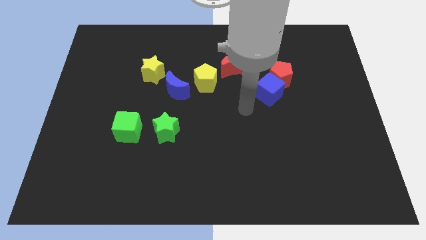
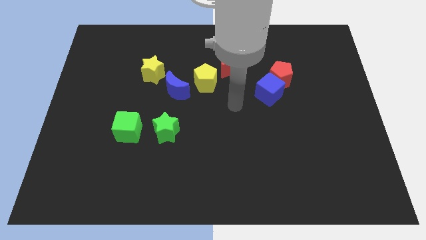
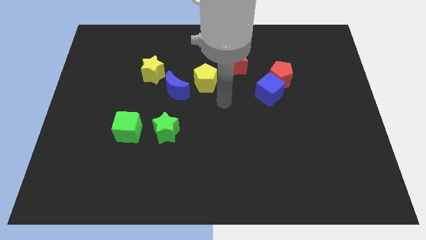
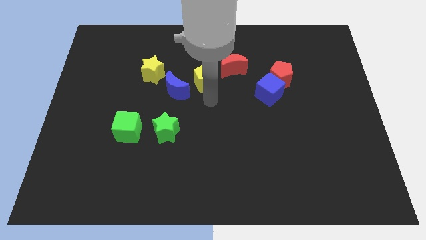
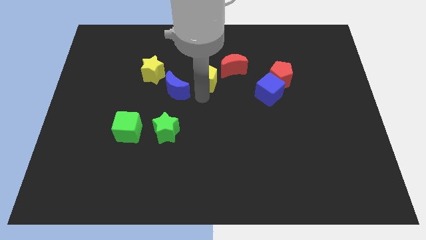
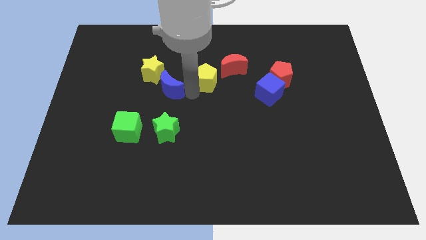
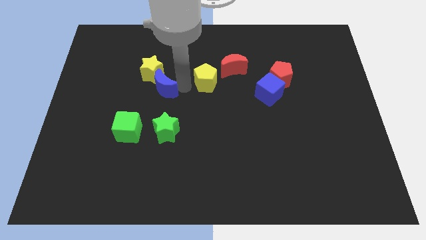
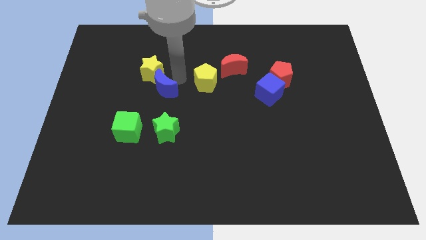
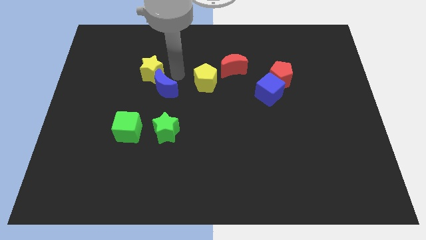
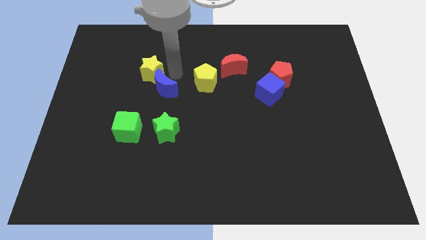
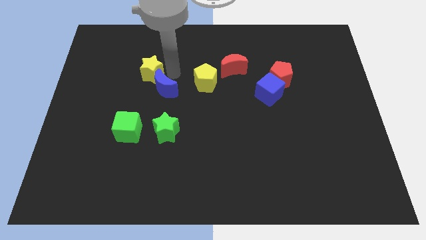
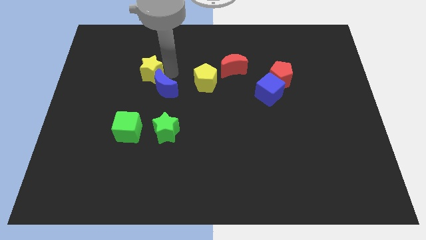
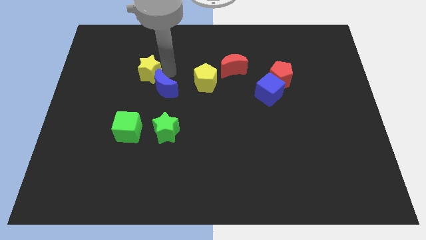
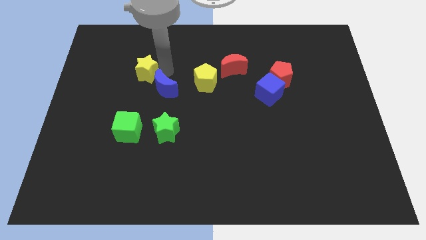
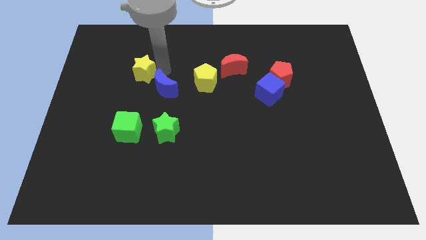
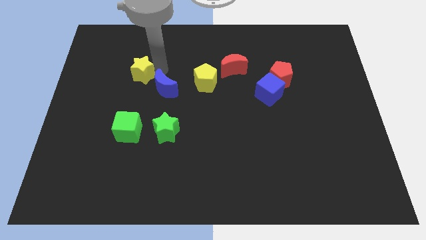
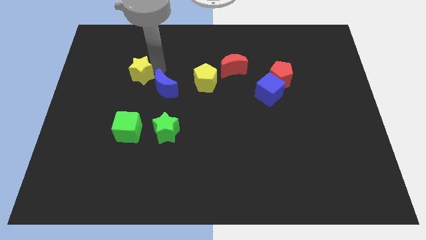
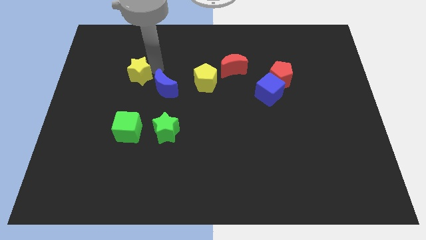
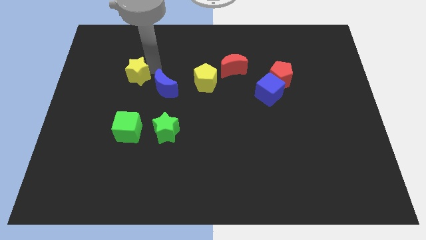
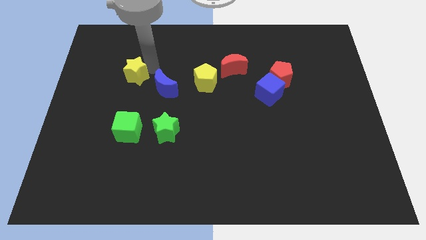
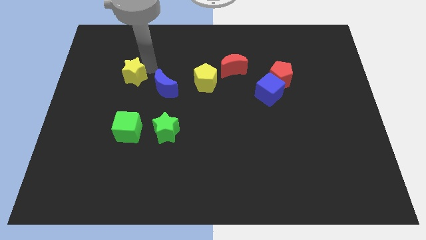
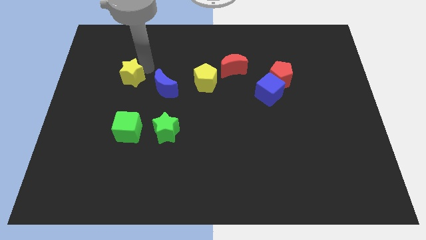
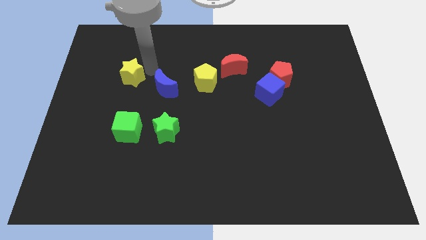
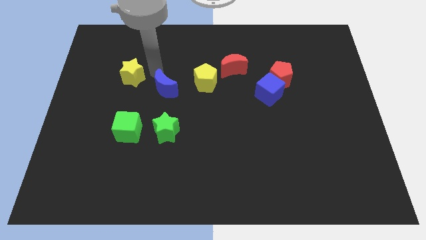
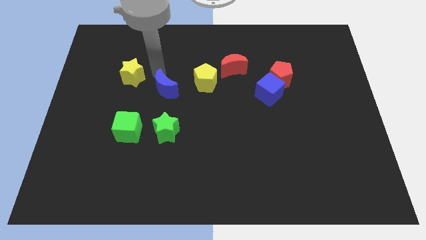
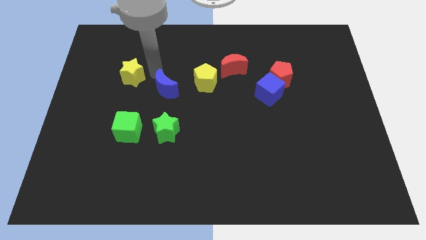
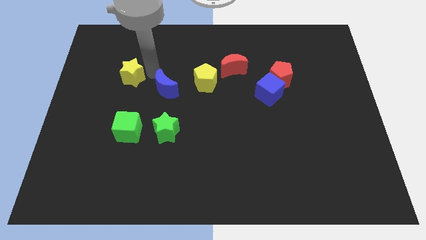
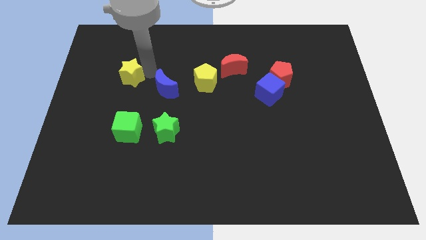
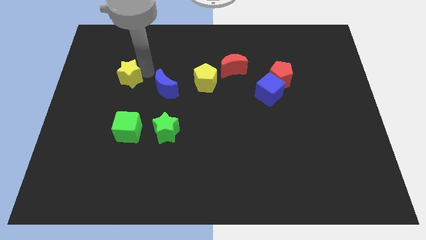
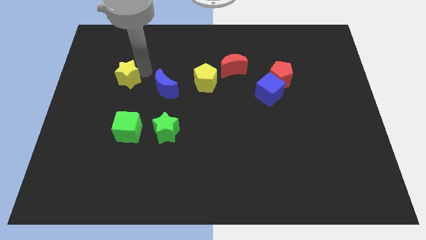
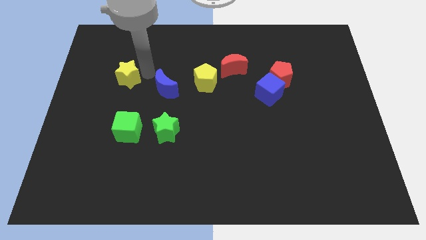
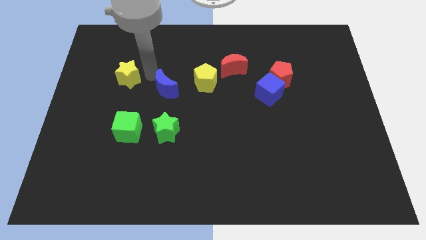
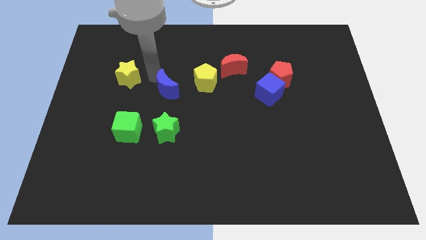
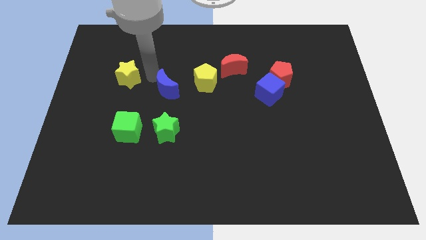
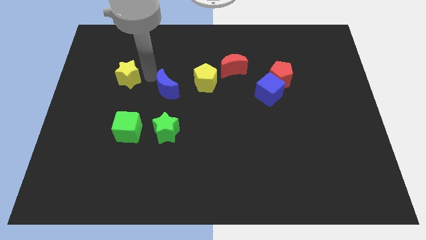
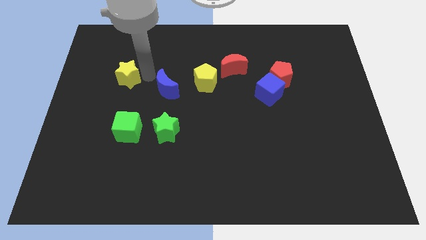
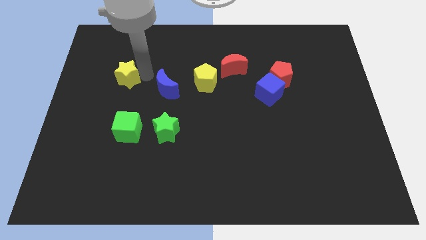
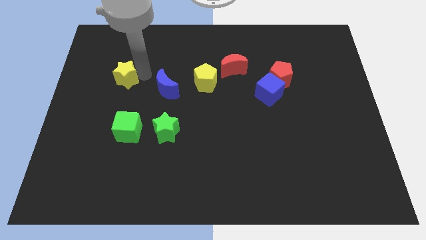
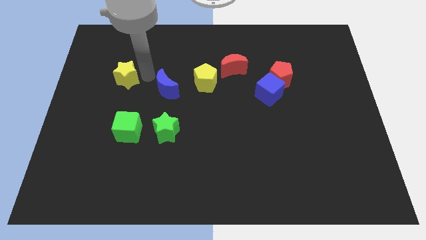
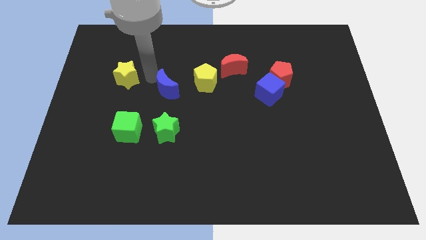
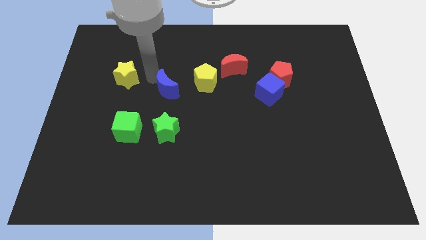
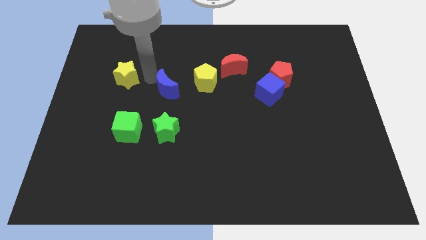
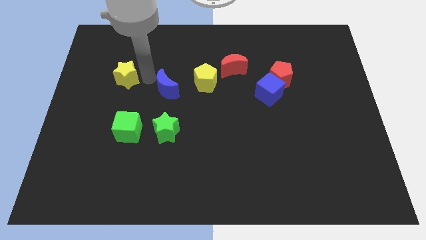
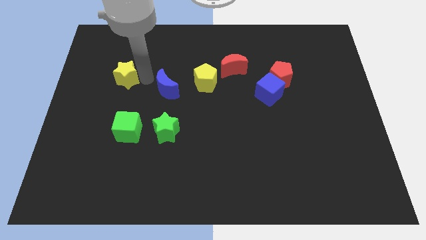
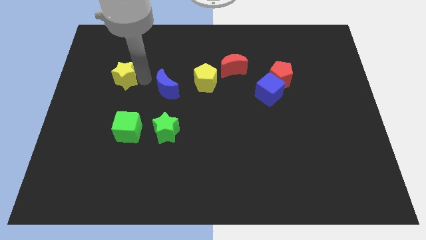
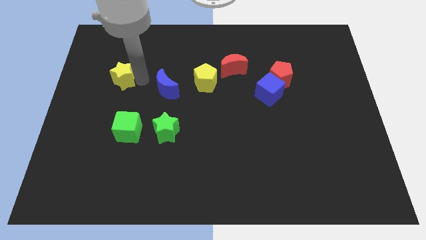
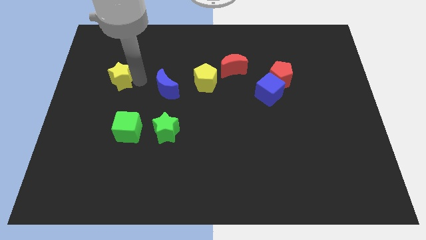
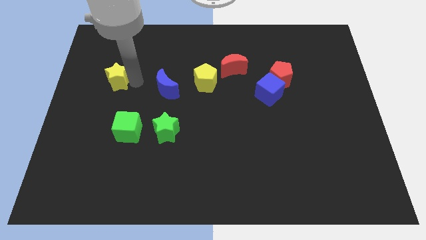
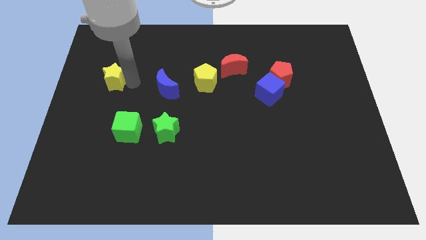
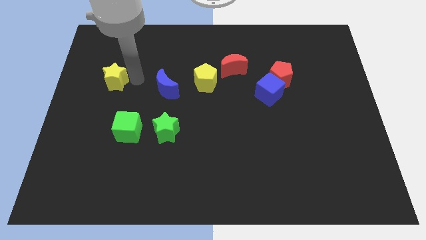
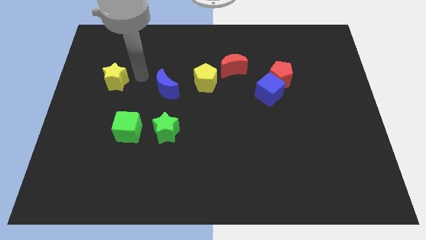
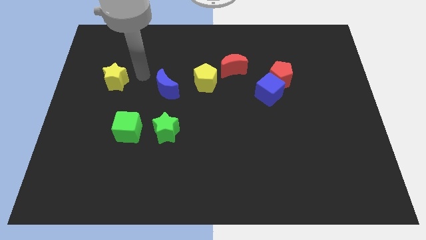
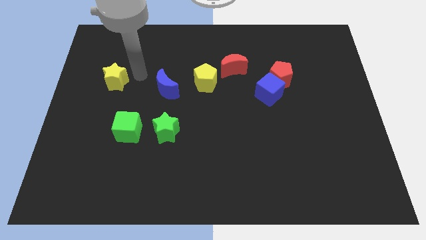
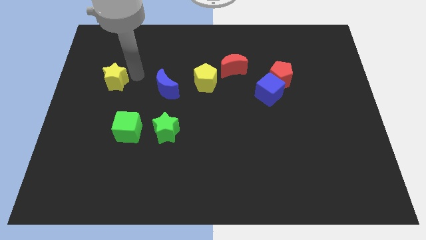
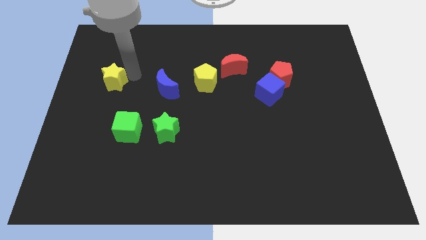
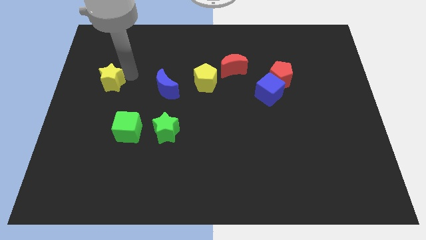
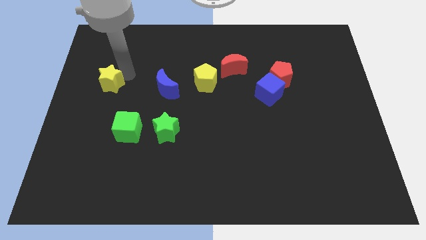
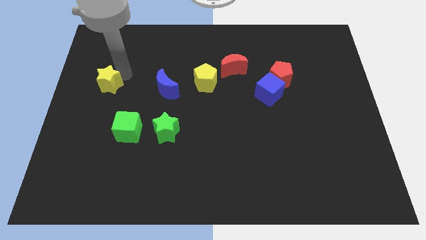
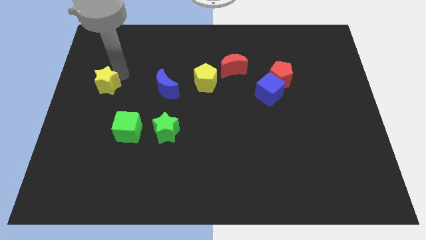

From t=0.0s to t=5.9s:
push the yellow star to the left side

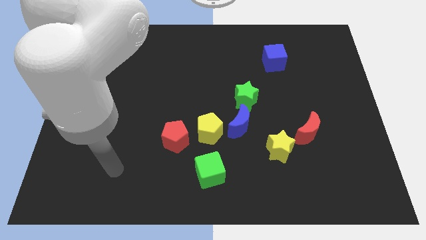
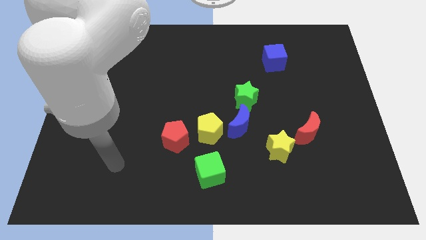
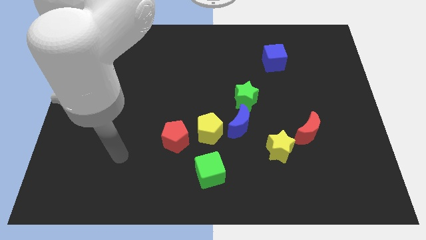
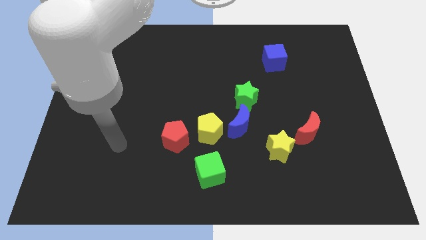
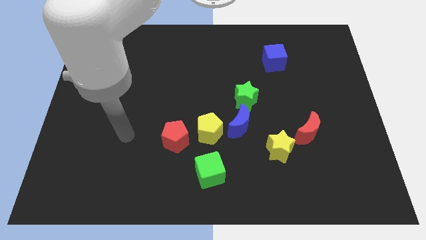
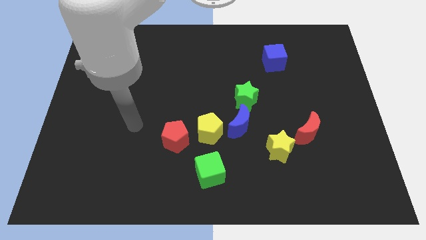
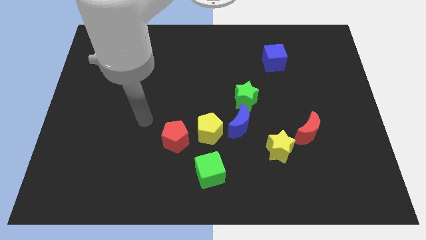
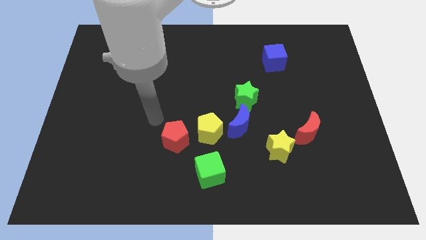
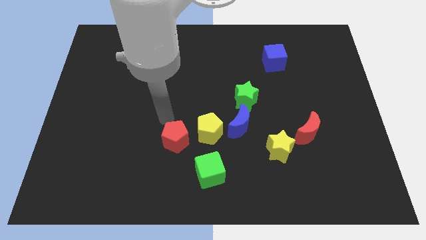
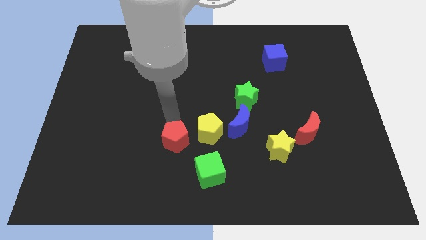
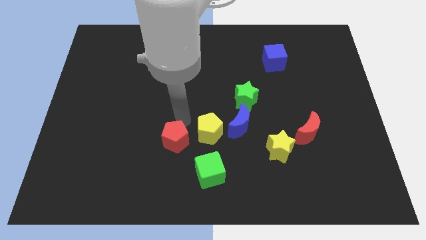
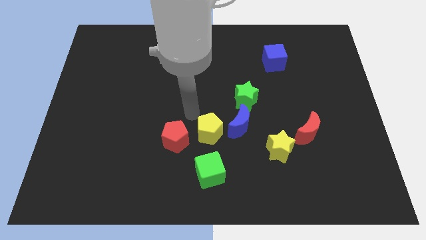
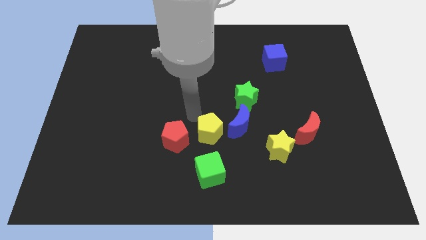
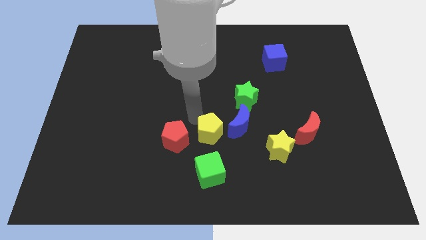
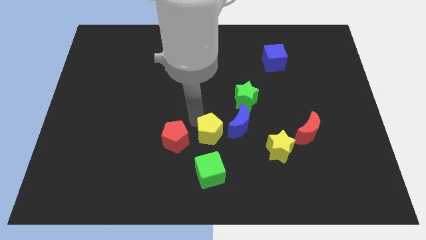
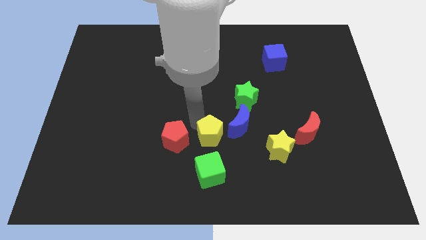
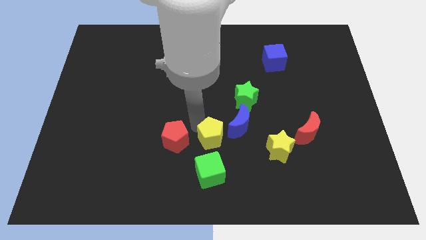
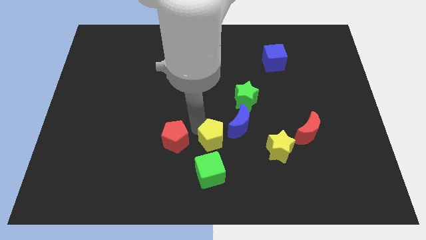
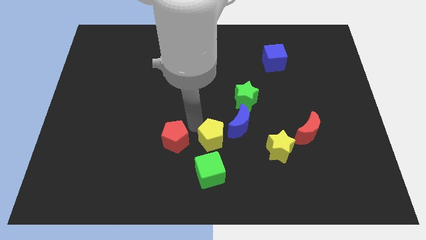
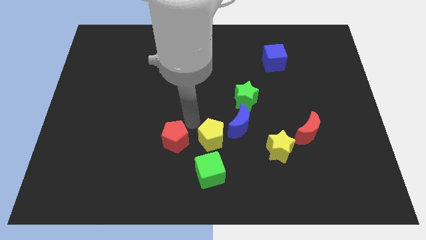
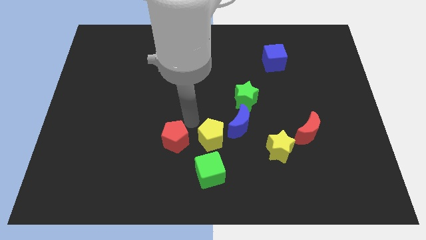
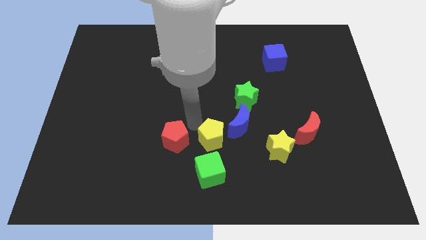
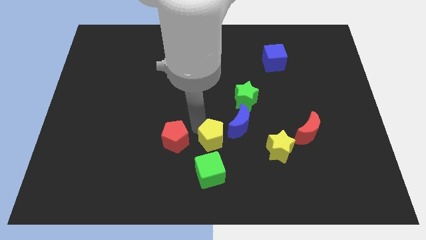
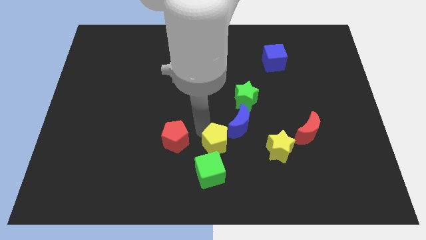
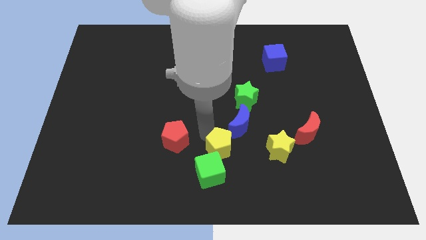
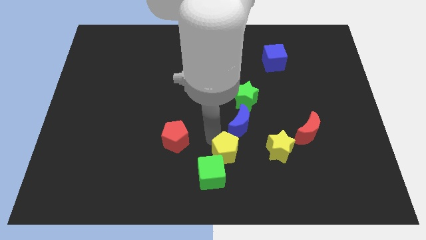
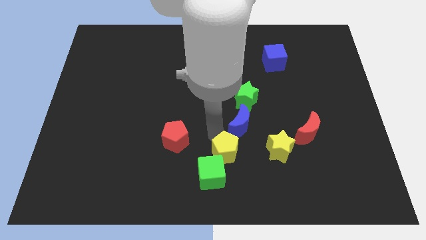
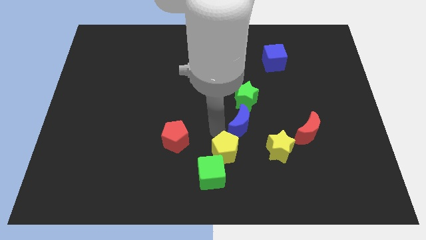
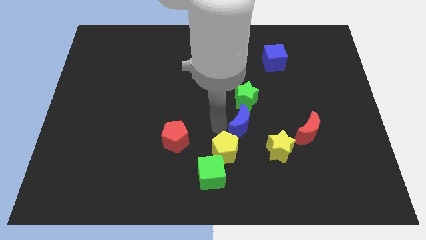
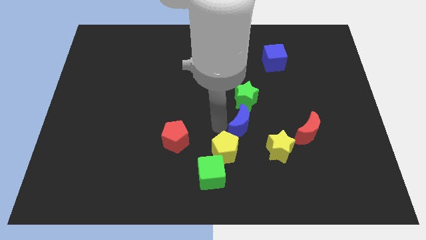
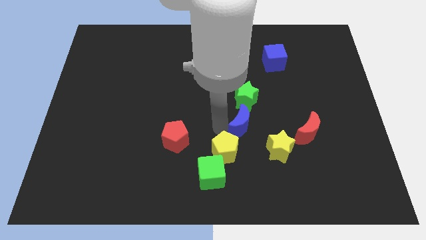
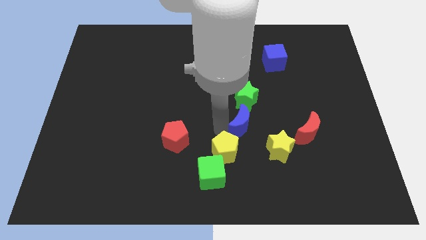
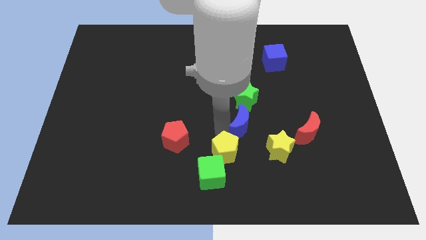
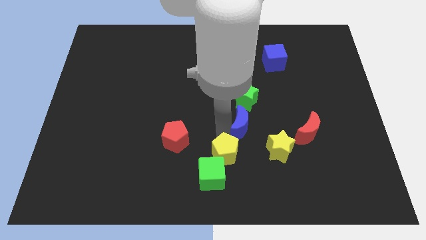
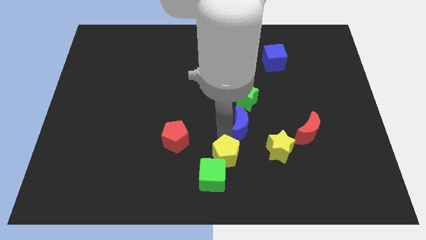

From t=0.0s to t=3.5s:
push the yellow pentagon to the bottom
